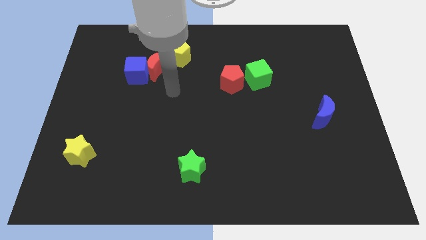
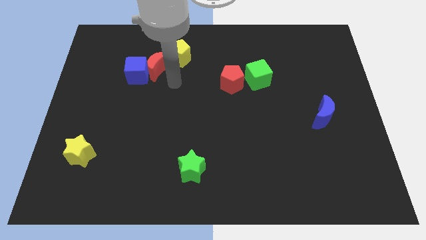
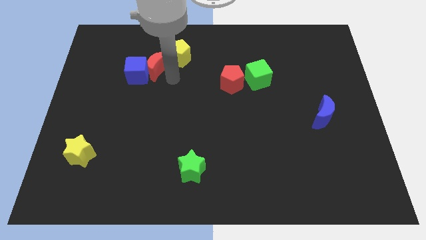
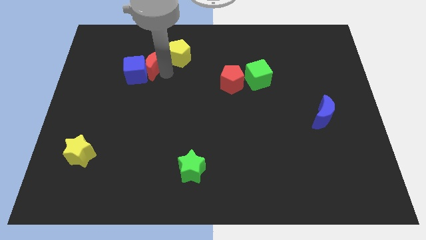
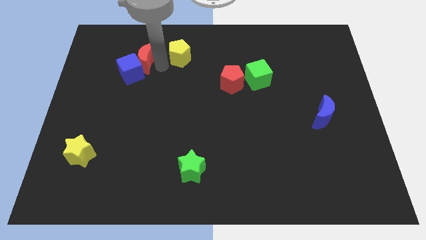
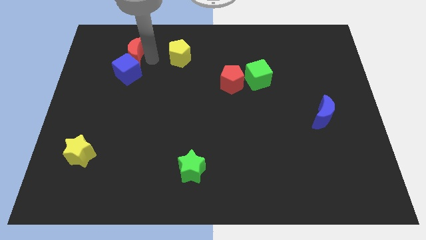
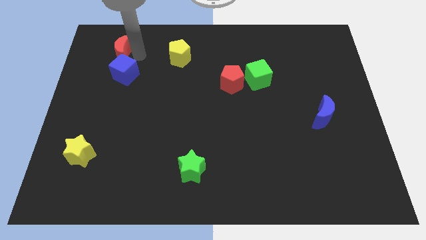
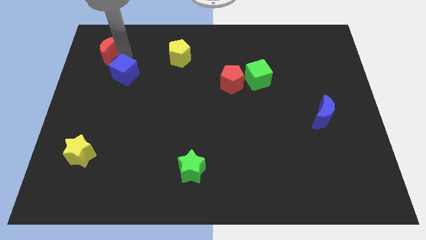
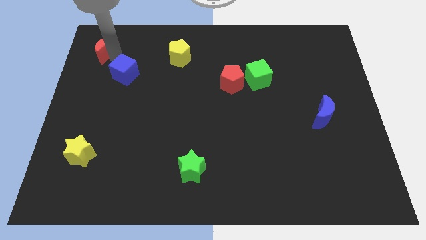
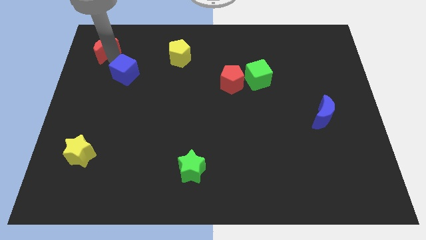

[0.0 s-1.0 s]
pull the blue cube apart from the red moon

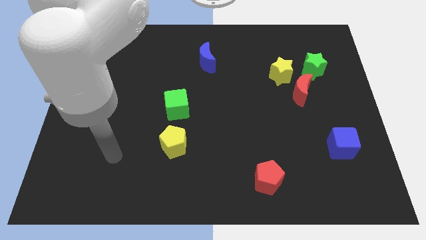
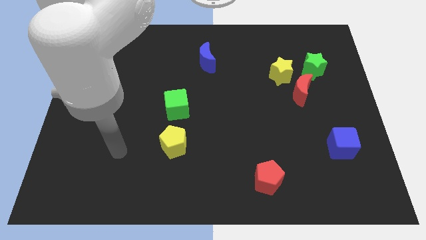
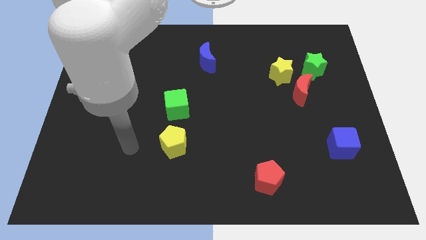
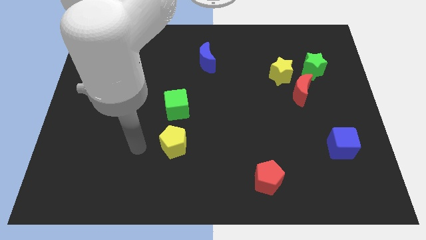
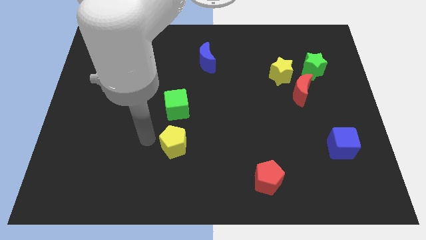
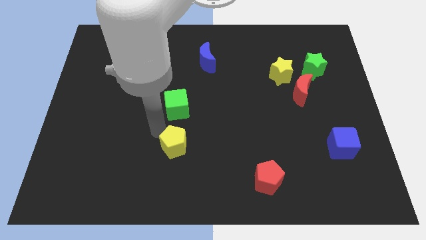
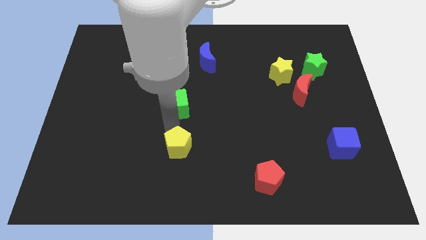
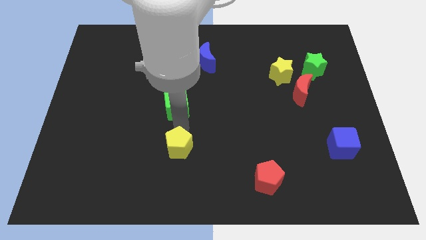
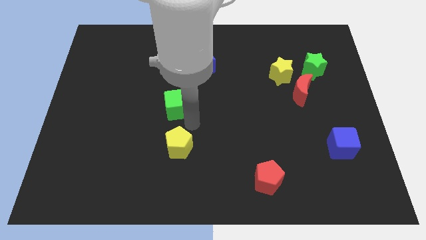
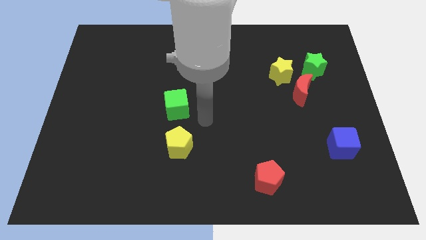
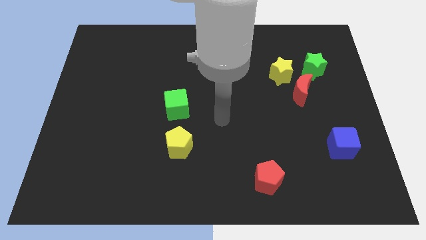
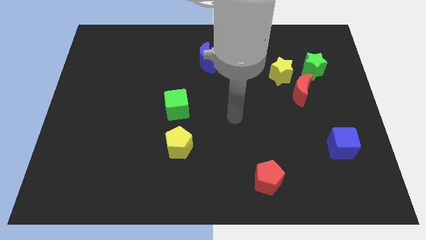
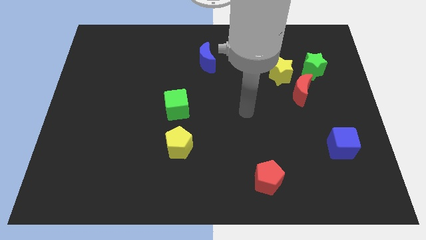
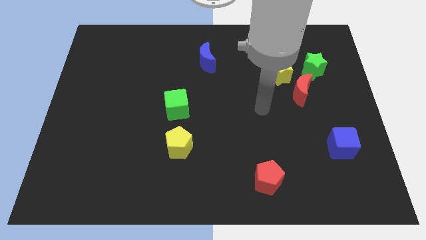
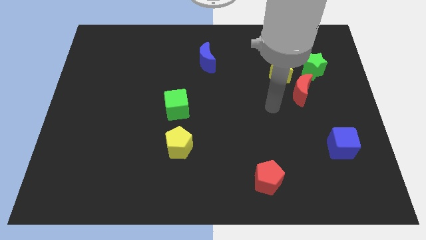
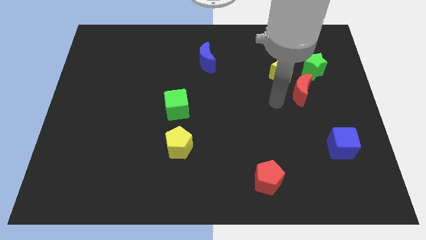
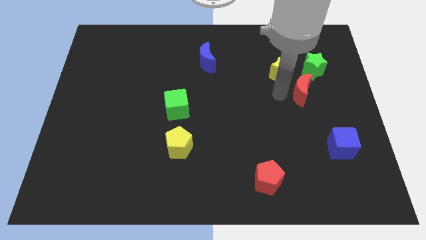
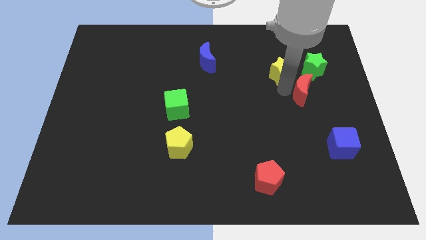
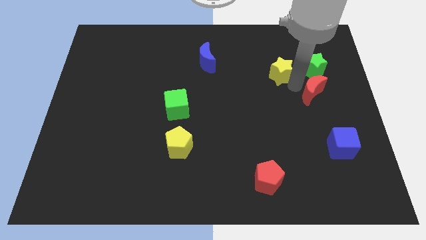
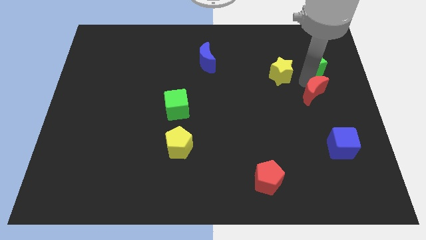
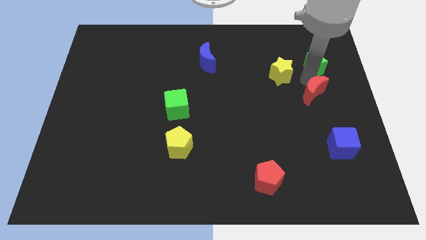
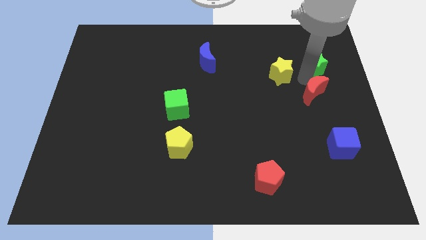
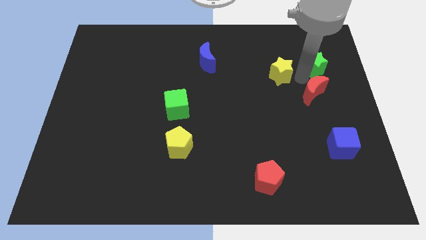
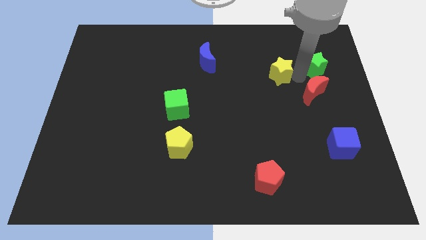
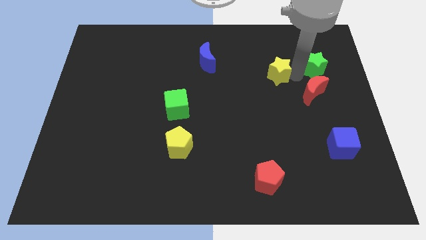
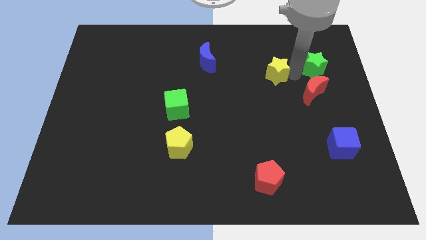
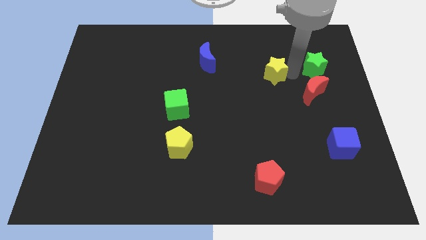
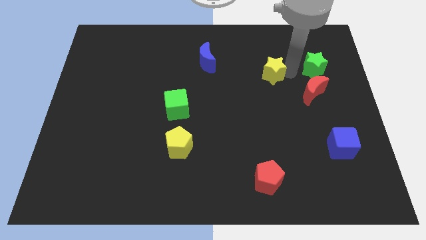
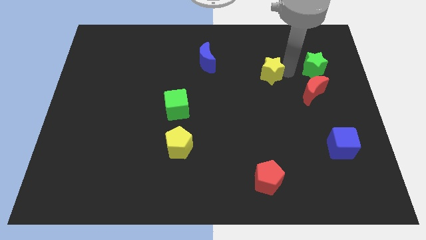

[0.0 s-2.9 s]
move the yellow star away from the red moon and green star

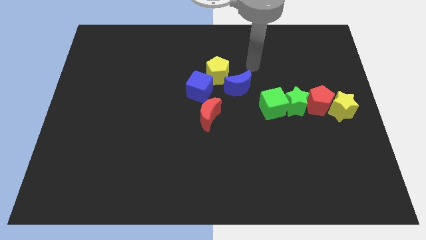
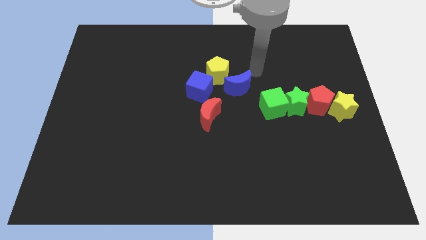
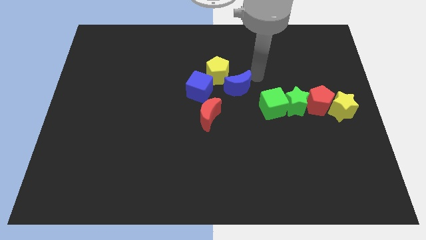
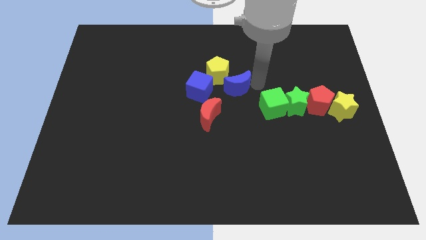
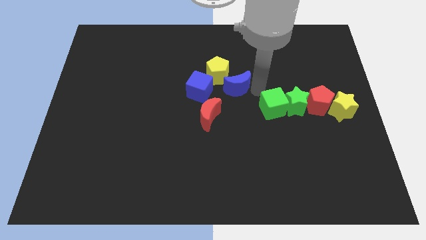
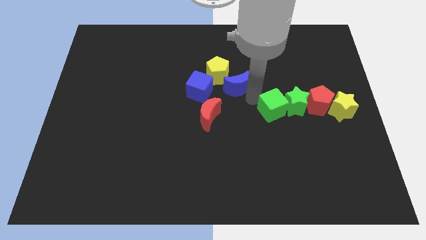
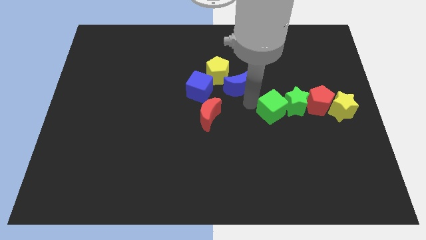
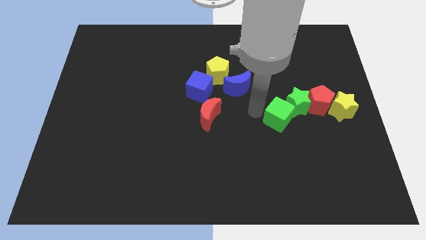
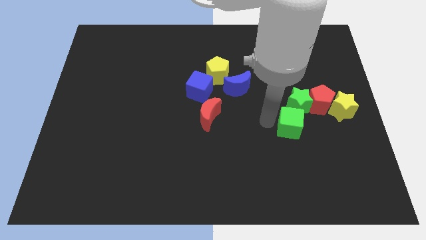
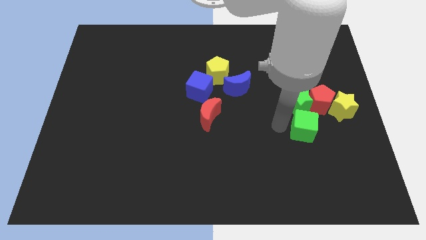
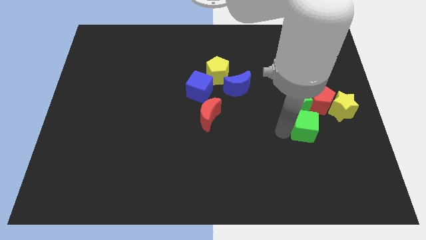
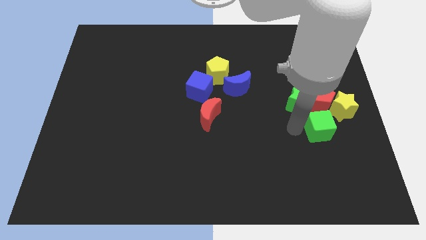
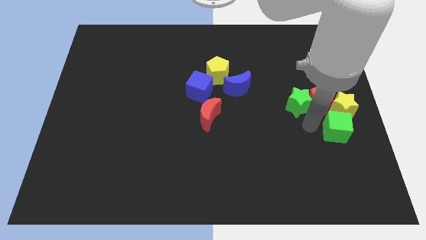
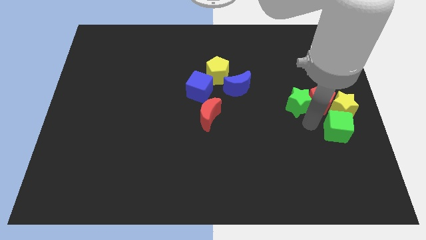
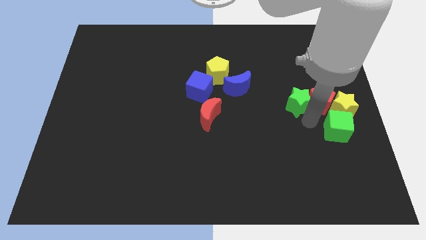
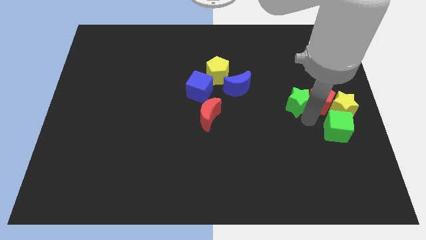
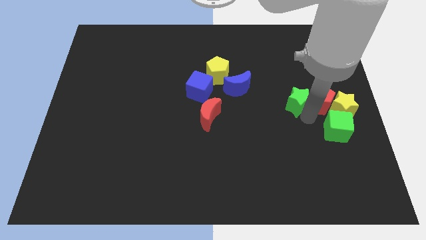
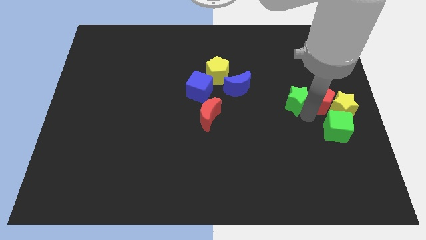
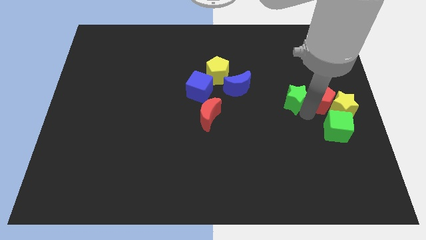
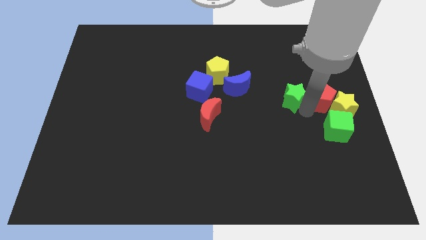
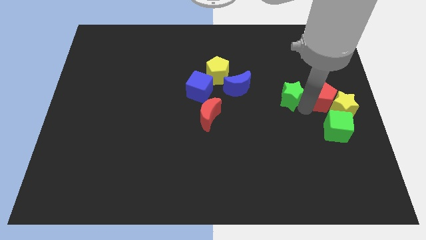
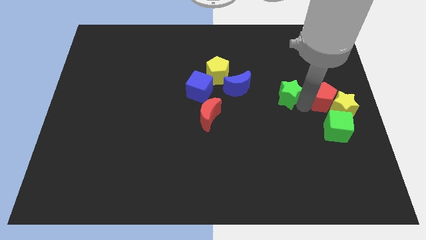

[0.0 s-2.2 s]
pull the green star apart from the green cube and red pentagon

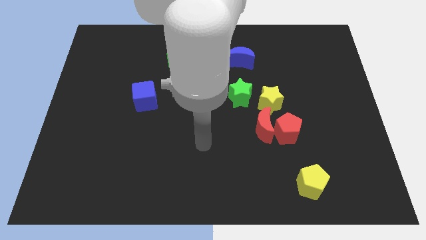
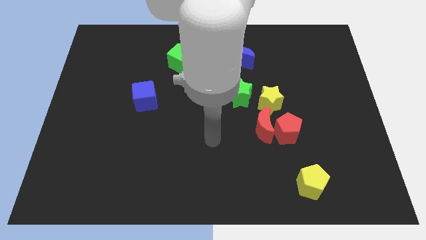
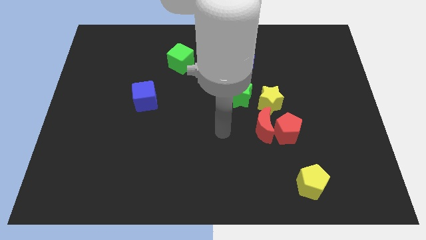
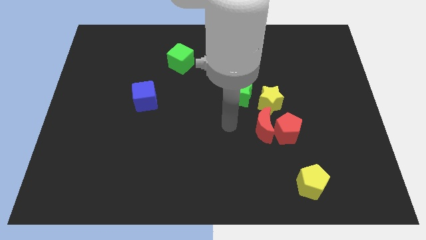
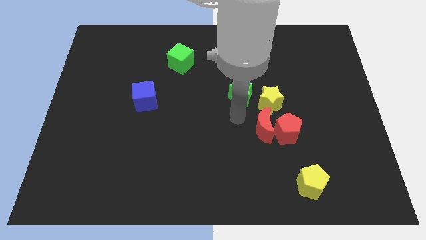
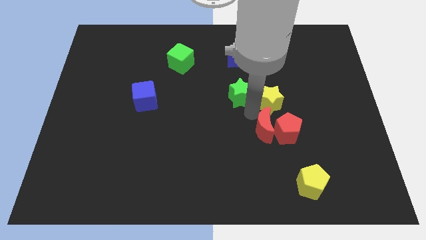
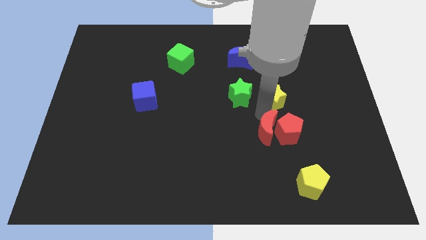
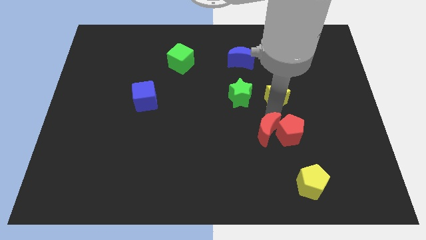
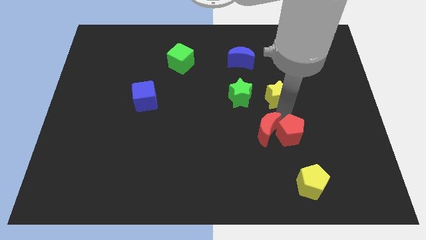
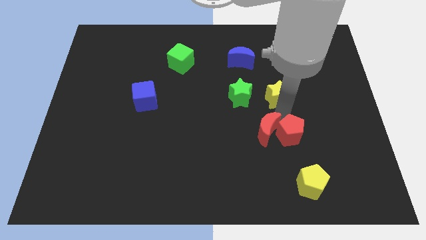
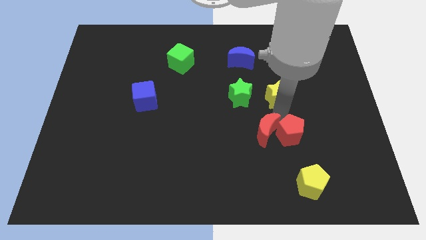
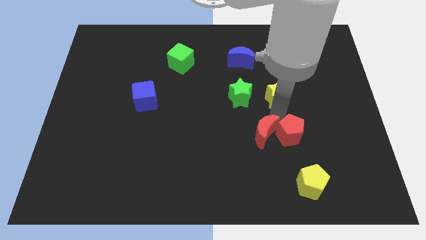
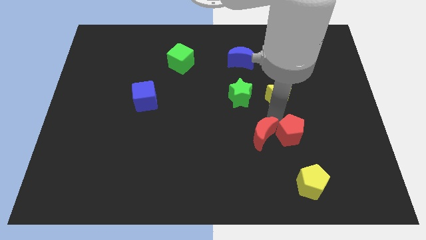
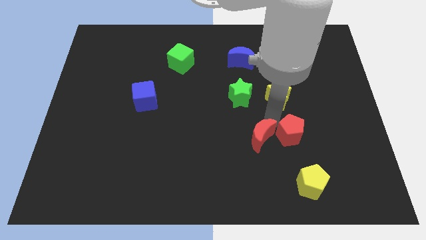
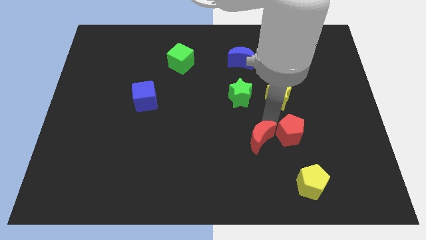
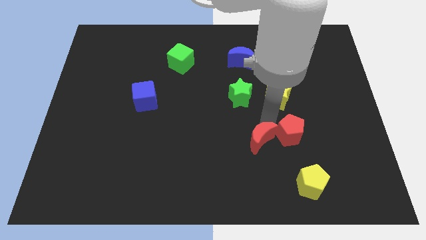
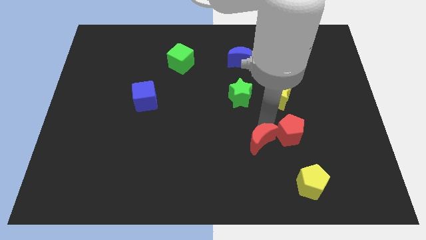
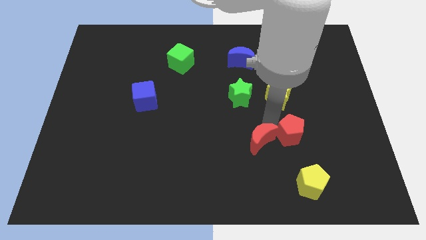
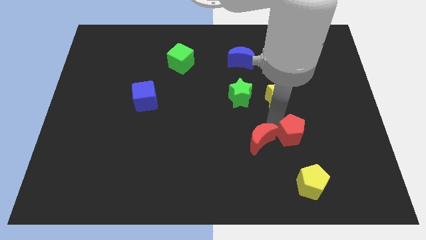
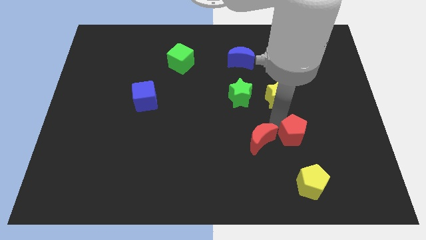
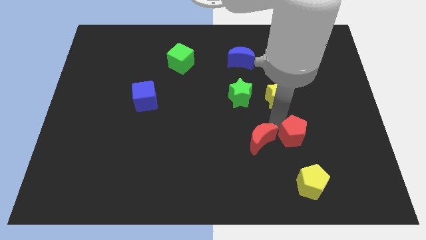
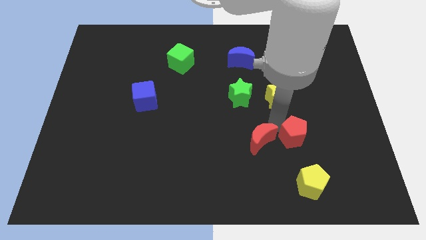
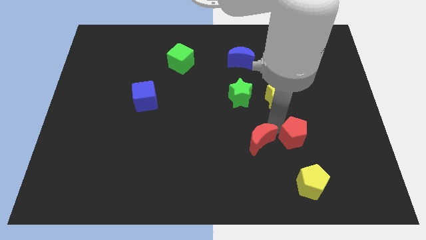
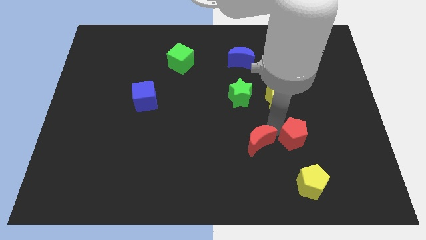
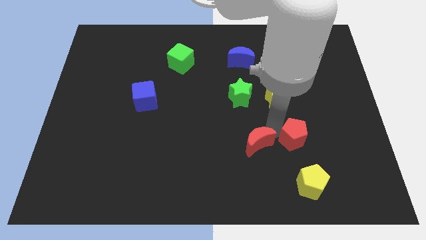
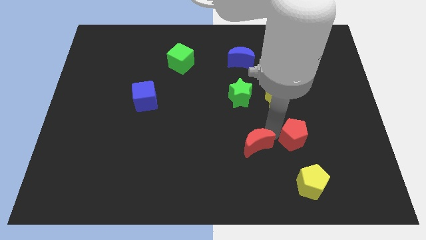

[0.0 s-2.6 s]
pull the red moon apart from the red pentagon and yellow star

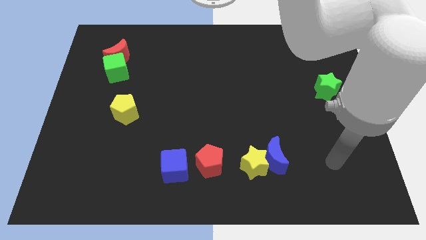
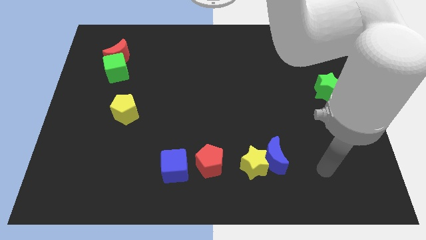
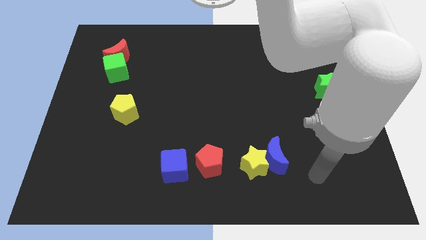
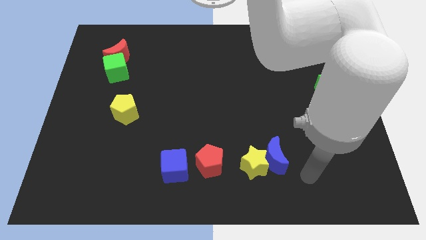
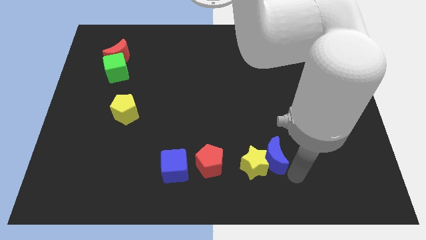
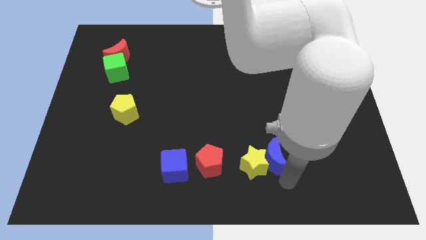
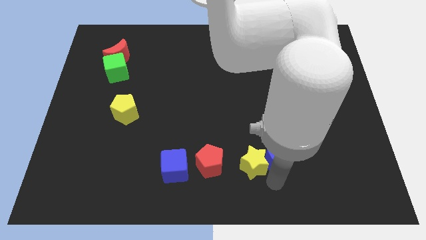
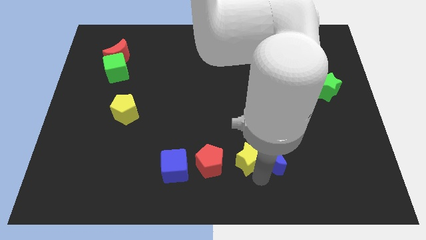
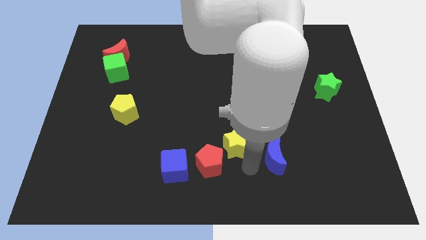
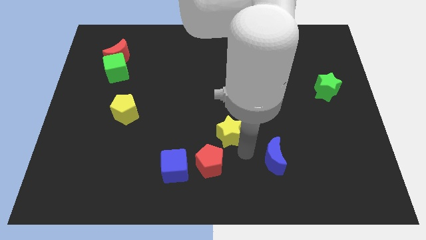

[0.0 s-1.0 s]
pull the blue moon apart from the yellow star
